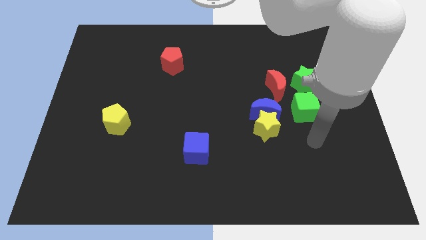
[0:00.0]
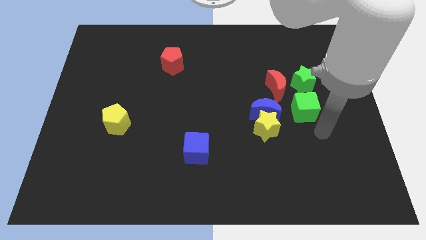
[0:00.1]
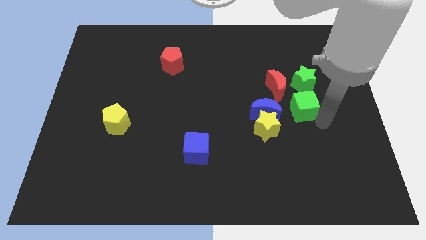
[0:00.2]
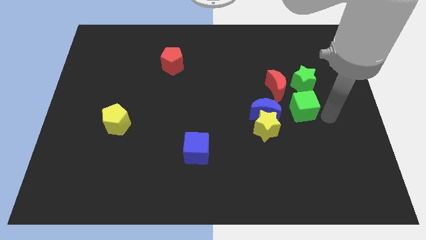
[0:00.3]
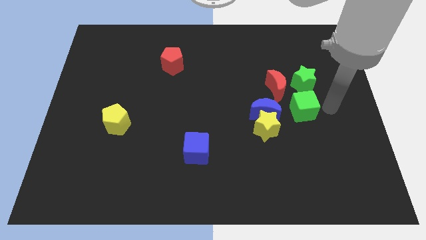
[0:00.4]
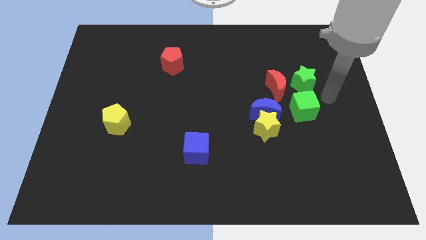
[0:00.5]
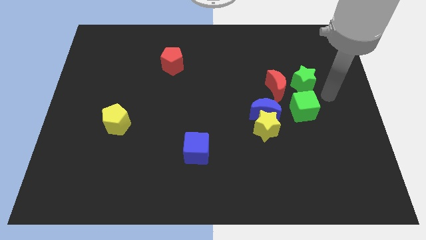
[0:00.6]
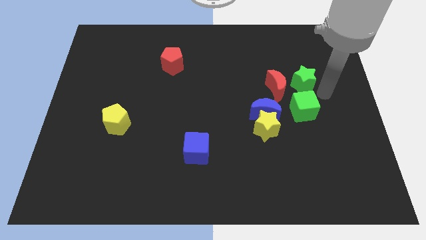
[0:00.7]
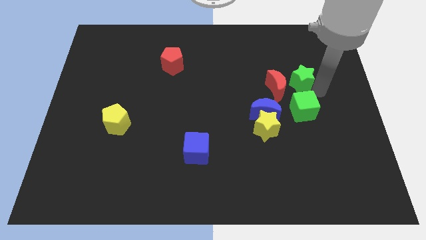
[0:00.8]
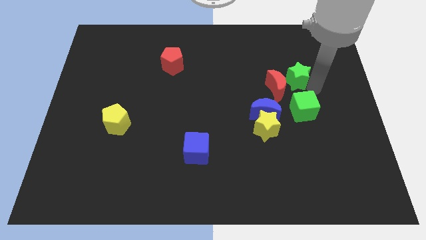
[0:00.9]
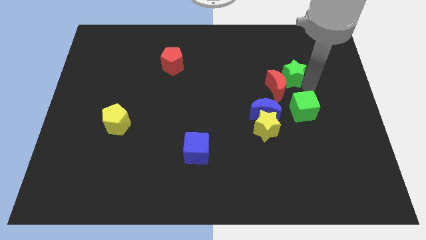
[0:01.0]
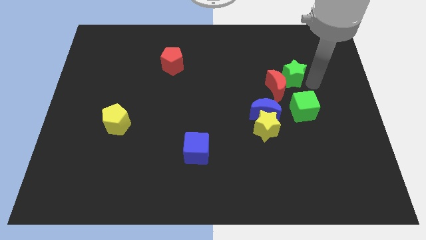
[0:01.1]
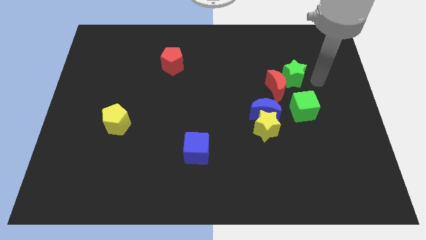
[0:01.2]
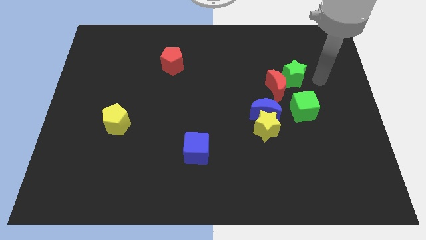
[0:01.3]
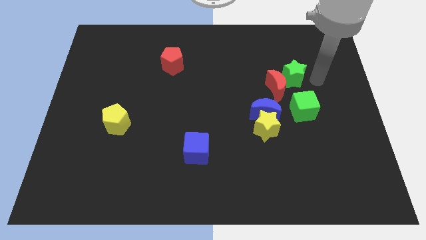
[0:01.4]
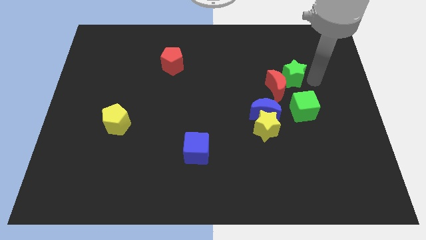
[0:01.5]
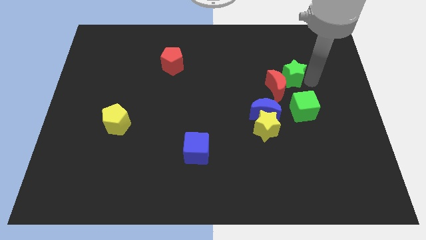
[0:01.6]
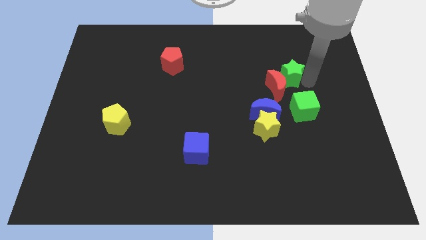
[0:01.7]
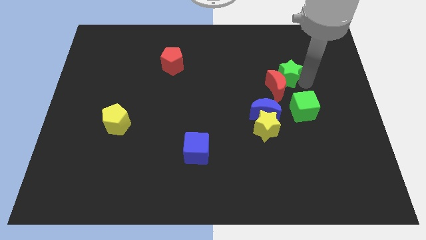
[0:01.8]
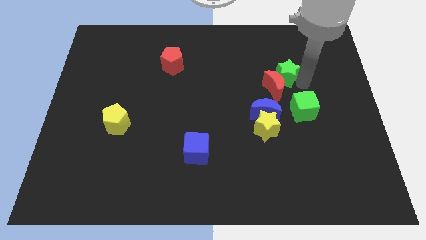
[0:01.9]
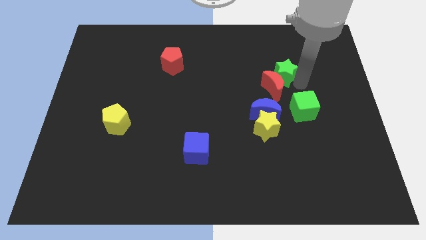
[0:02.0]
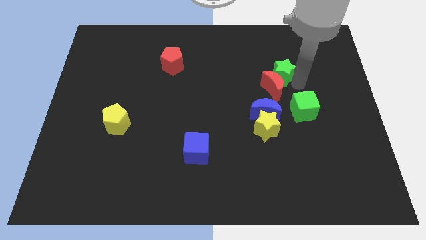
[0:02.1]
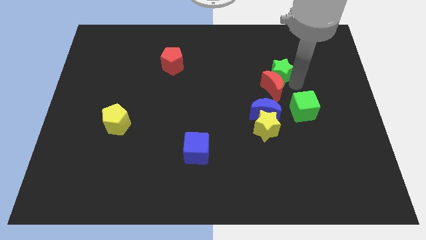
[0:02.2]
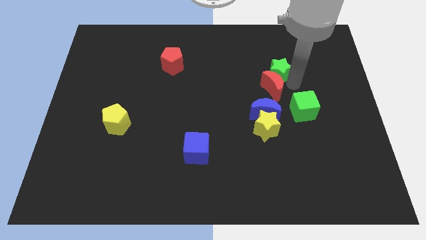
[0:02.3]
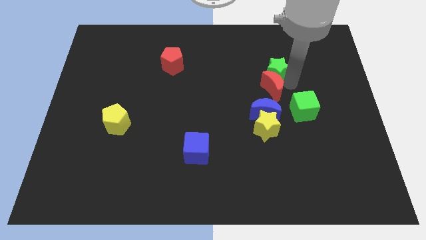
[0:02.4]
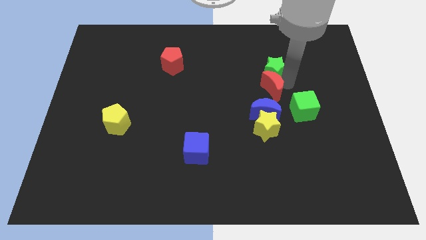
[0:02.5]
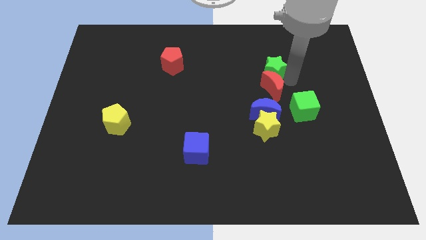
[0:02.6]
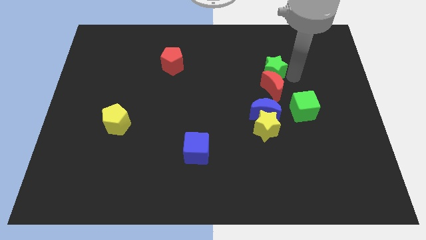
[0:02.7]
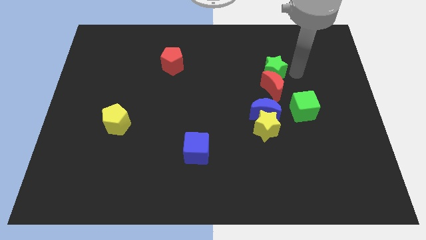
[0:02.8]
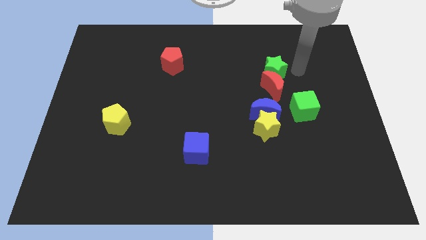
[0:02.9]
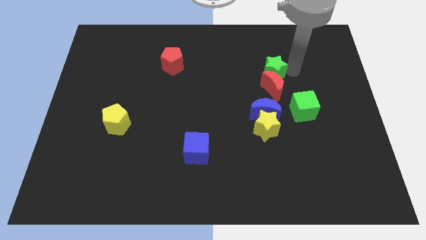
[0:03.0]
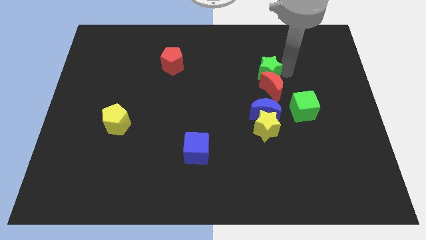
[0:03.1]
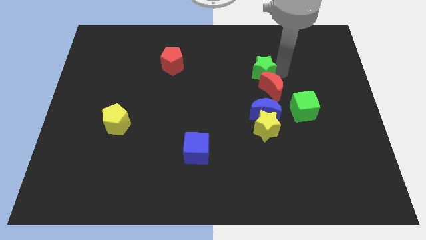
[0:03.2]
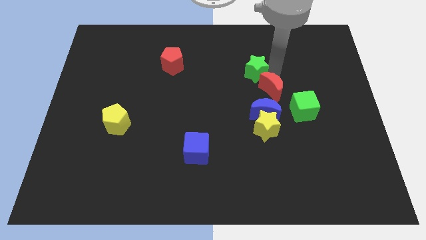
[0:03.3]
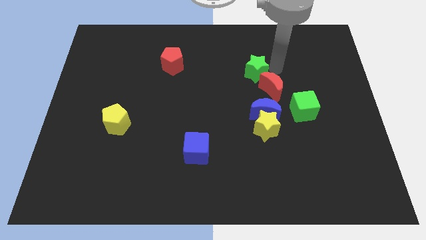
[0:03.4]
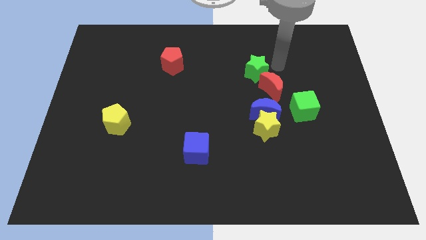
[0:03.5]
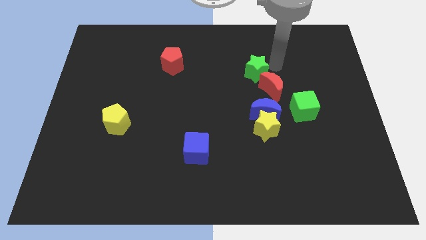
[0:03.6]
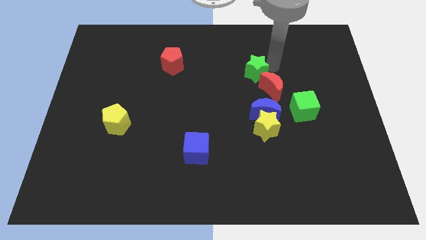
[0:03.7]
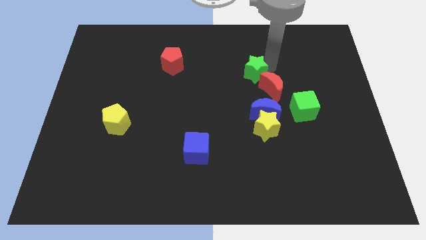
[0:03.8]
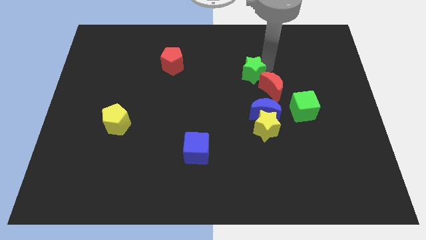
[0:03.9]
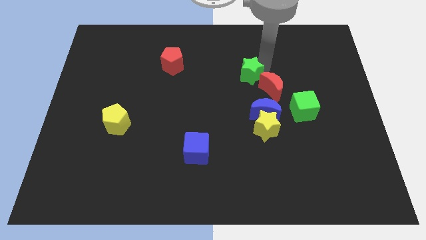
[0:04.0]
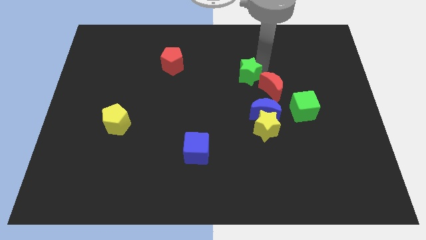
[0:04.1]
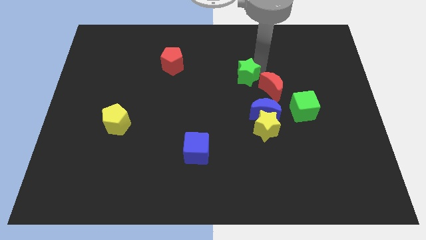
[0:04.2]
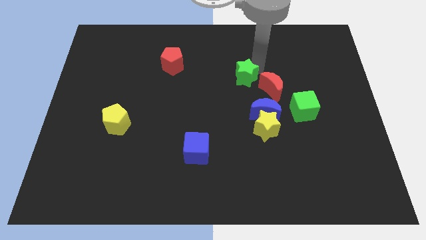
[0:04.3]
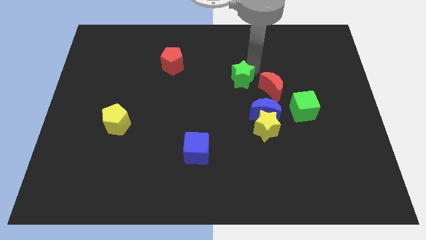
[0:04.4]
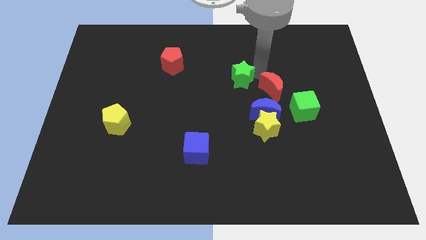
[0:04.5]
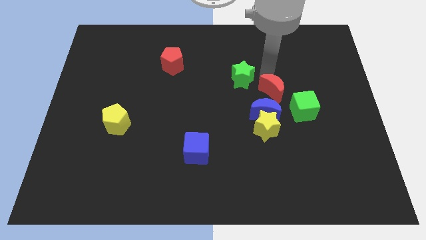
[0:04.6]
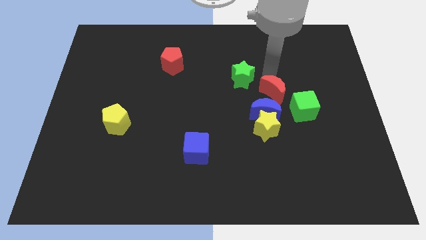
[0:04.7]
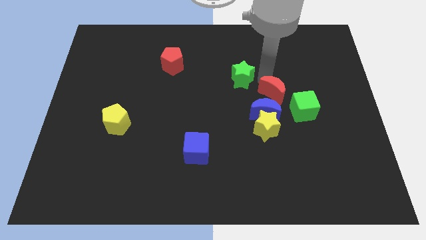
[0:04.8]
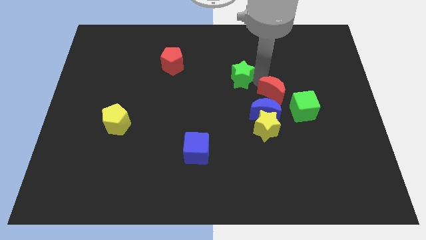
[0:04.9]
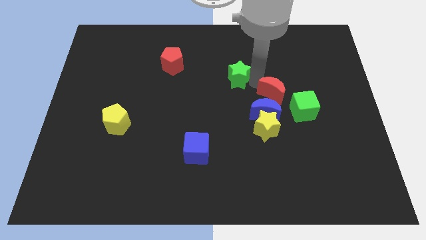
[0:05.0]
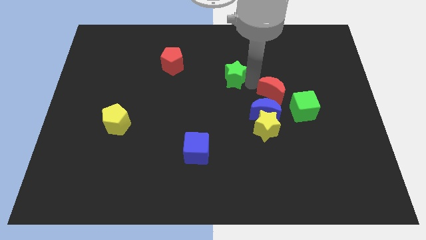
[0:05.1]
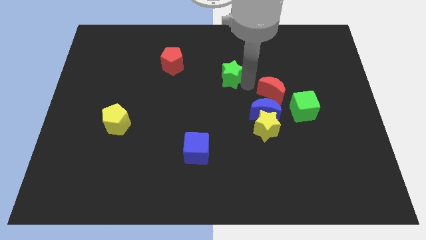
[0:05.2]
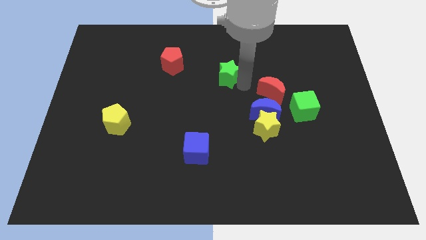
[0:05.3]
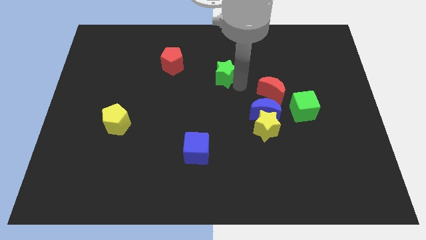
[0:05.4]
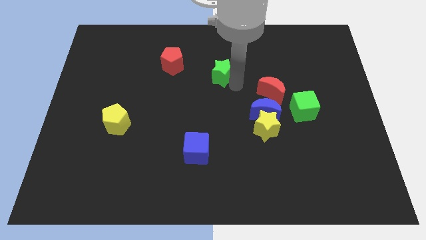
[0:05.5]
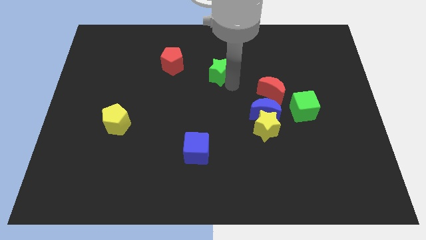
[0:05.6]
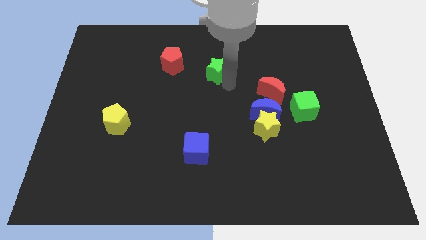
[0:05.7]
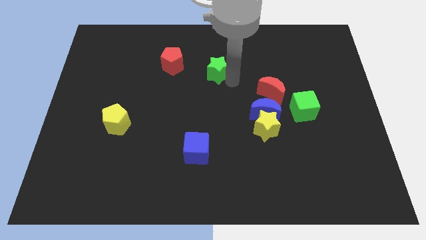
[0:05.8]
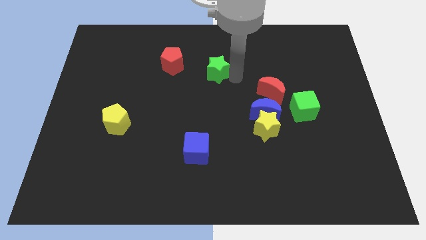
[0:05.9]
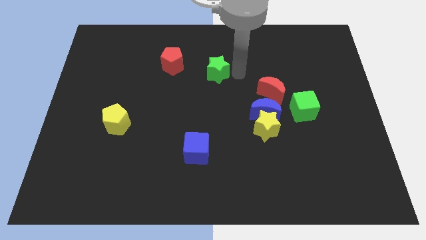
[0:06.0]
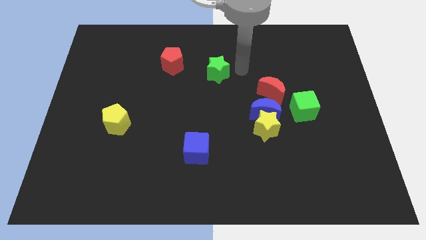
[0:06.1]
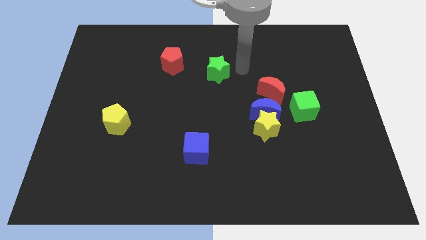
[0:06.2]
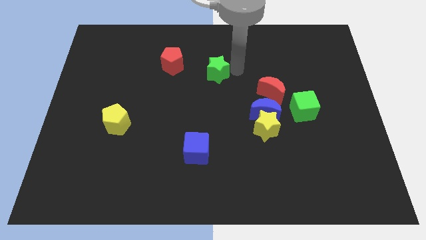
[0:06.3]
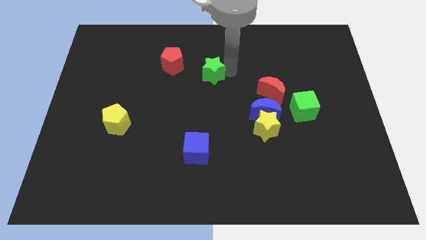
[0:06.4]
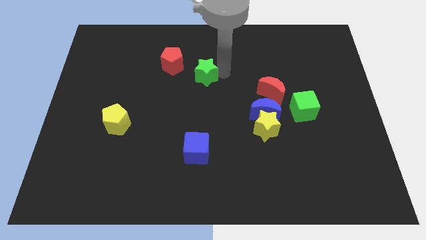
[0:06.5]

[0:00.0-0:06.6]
put the green star to the bottom right side of the red pentagon

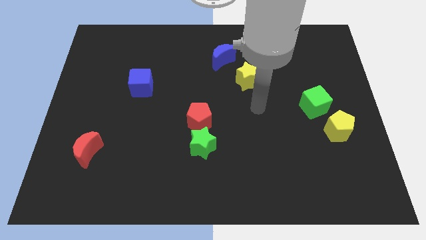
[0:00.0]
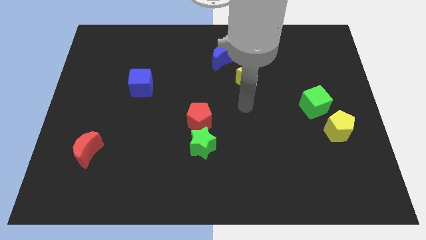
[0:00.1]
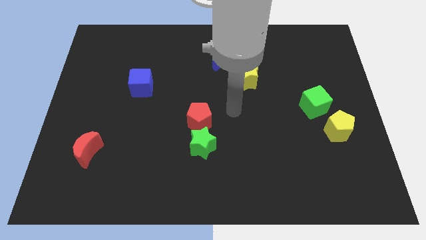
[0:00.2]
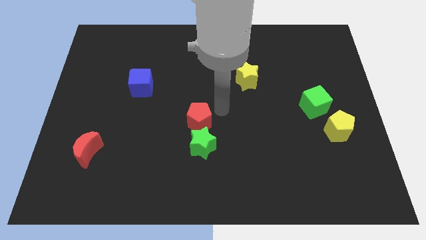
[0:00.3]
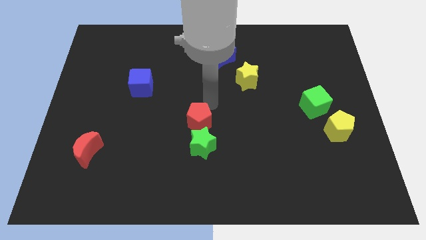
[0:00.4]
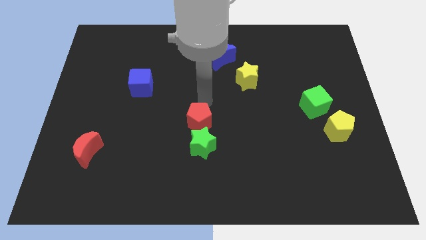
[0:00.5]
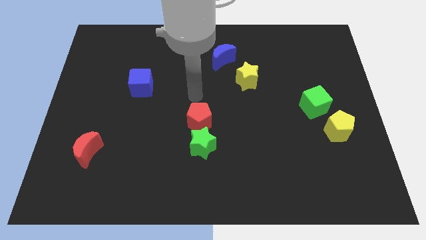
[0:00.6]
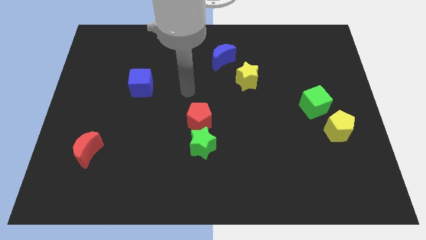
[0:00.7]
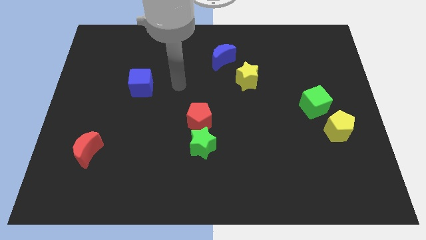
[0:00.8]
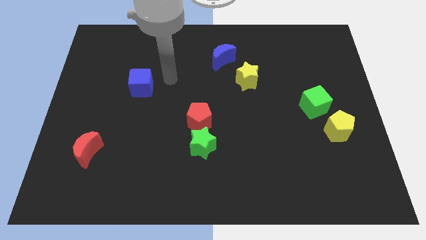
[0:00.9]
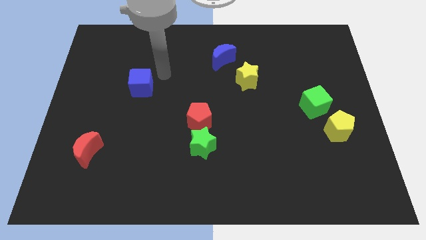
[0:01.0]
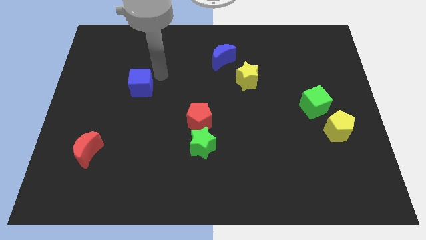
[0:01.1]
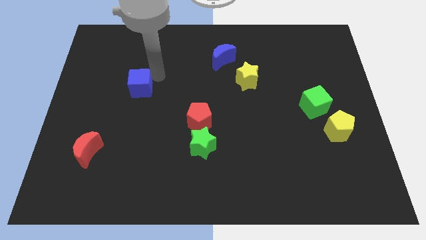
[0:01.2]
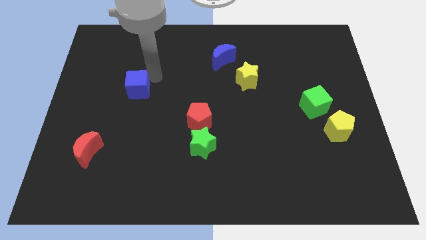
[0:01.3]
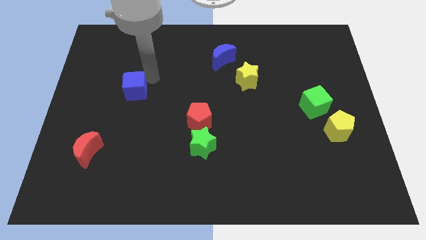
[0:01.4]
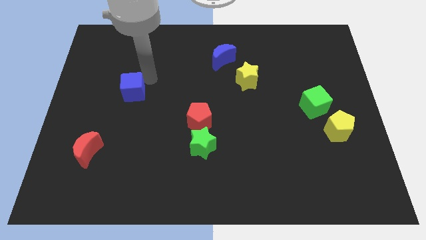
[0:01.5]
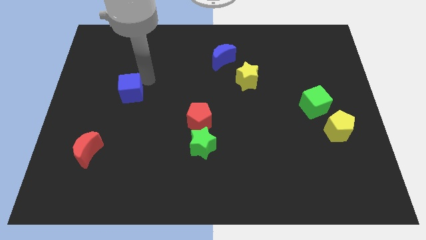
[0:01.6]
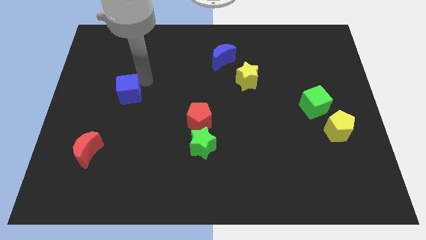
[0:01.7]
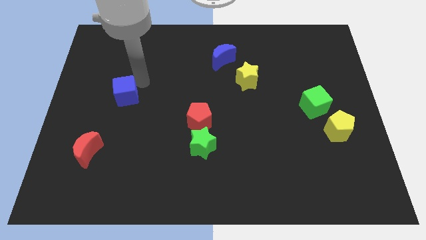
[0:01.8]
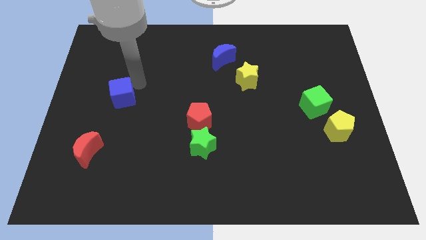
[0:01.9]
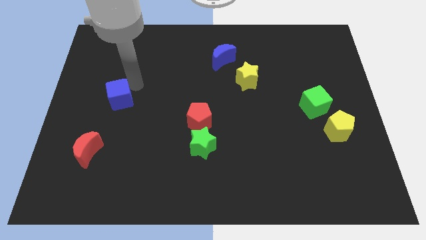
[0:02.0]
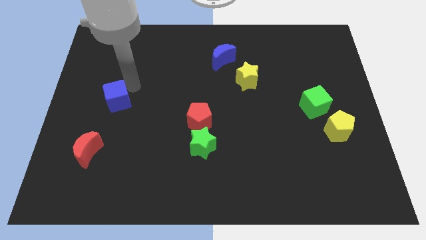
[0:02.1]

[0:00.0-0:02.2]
move the blue cube to the top of the red moon
